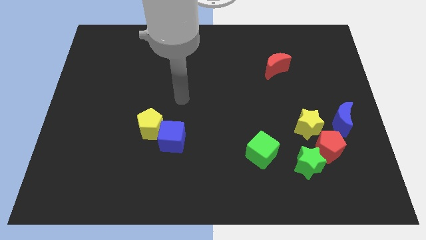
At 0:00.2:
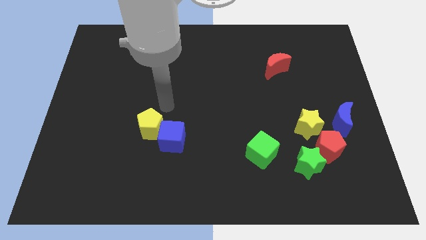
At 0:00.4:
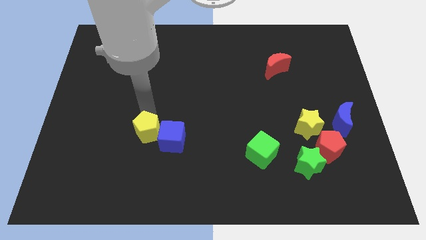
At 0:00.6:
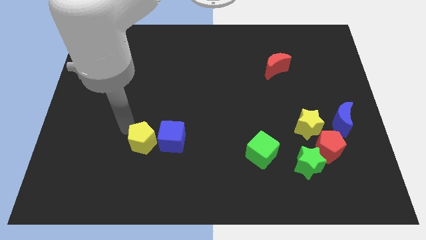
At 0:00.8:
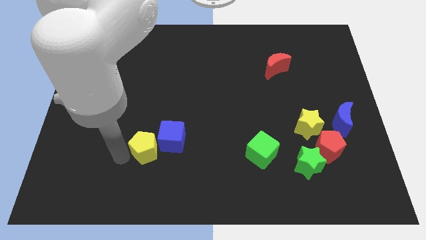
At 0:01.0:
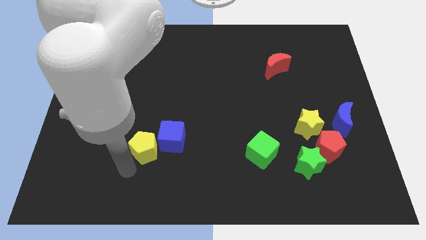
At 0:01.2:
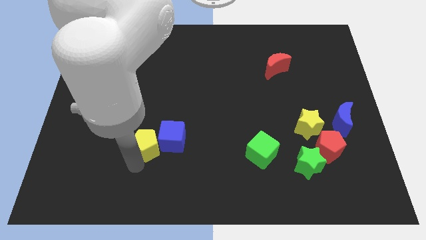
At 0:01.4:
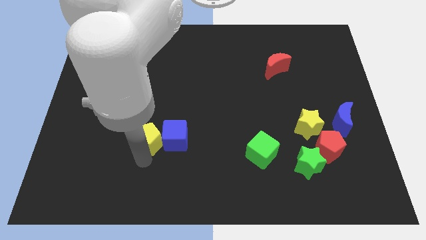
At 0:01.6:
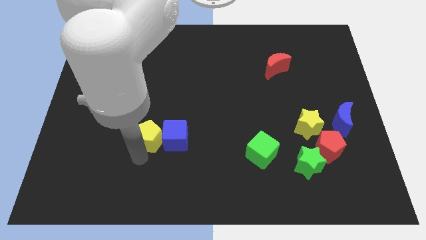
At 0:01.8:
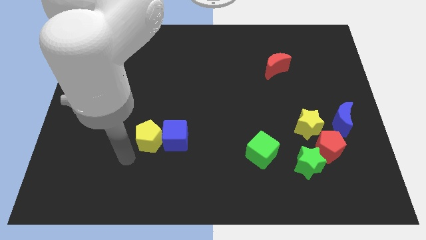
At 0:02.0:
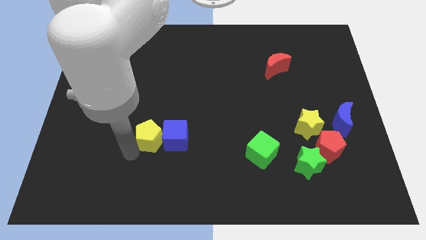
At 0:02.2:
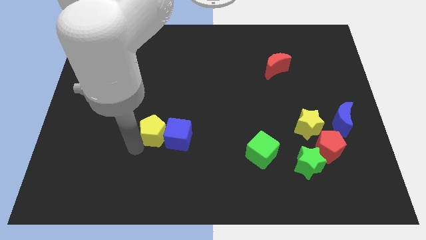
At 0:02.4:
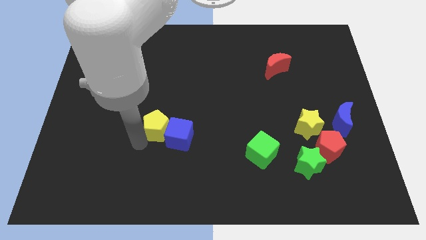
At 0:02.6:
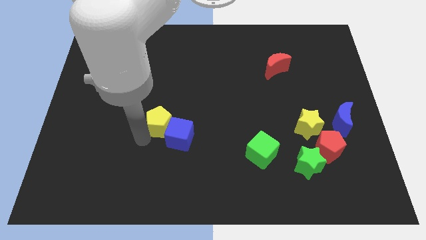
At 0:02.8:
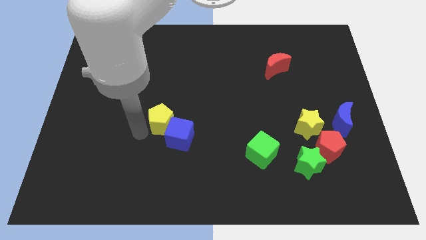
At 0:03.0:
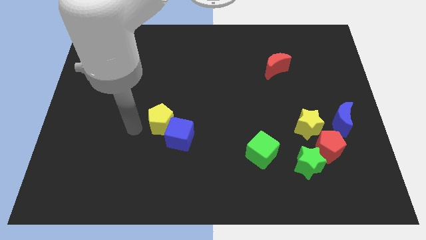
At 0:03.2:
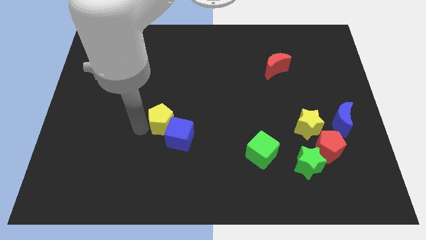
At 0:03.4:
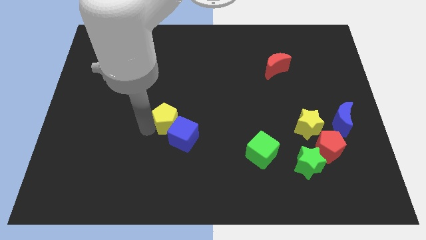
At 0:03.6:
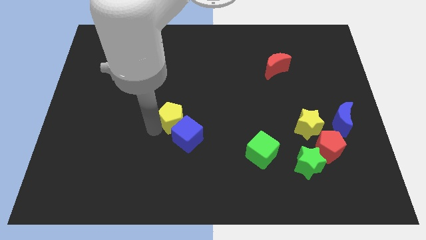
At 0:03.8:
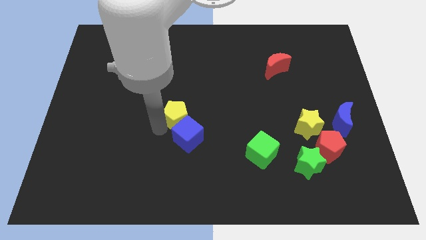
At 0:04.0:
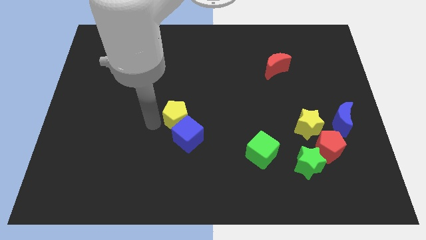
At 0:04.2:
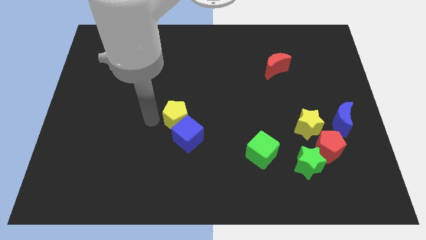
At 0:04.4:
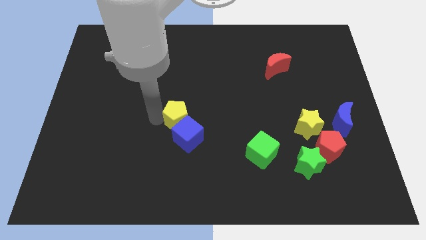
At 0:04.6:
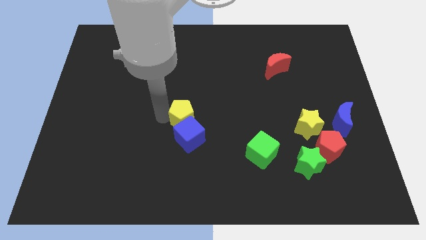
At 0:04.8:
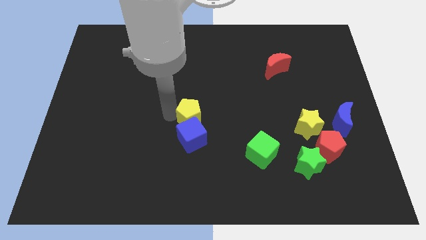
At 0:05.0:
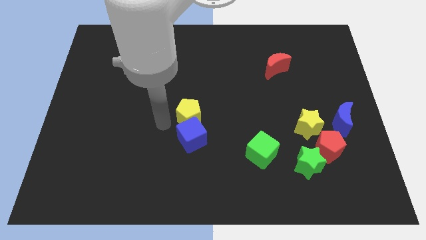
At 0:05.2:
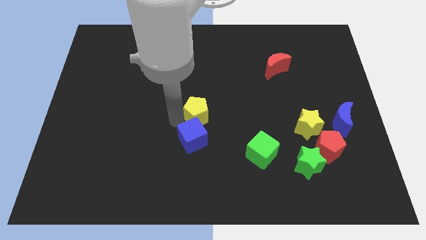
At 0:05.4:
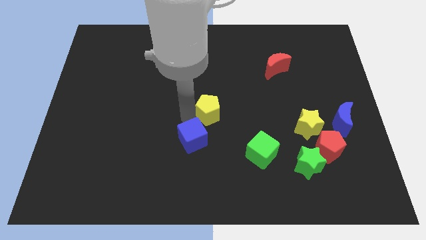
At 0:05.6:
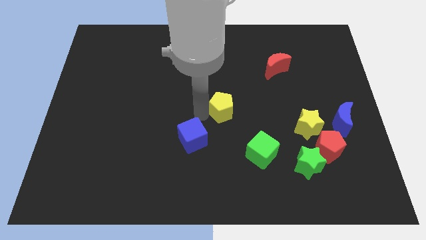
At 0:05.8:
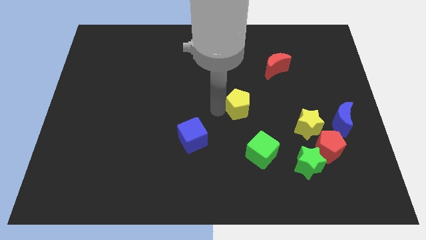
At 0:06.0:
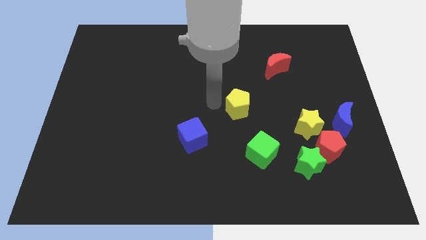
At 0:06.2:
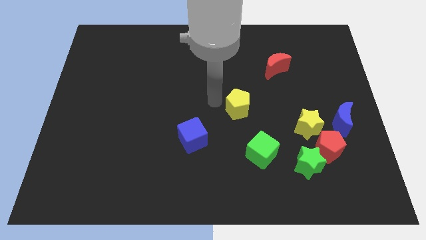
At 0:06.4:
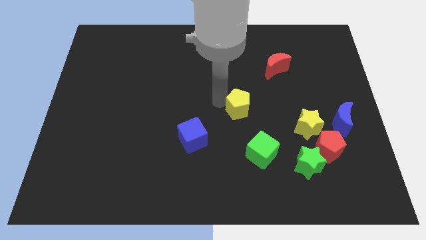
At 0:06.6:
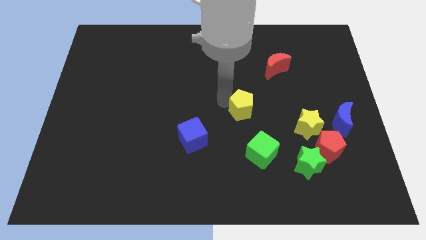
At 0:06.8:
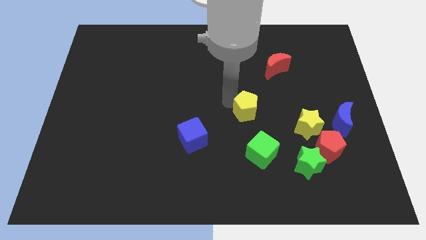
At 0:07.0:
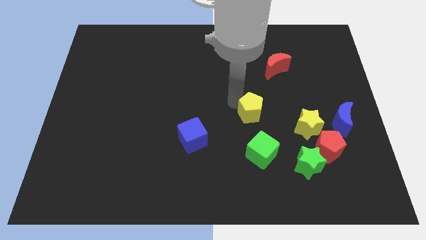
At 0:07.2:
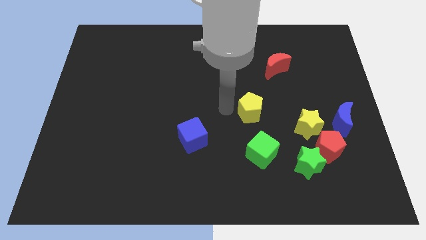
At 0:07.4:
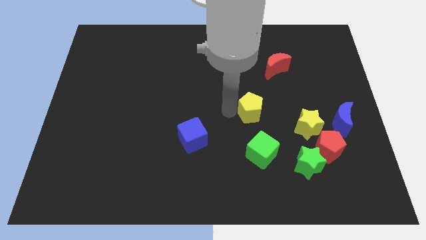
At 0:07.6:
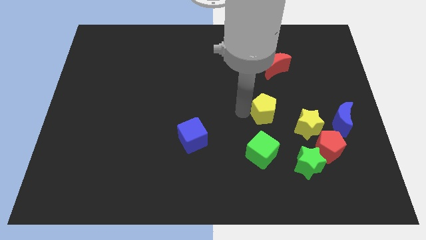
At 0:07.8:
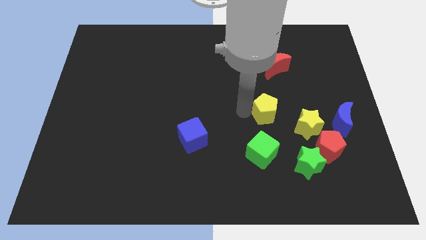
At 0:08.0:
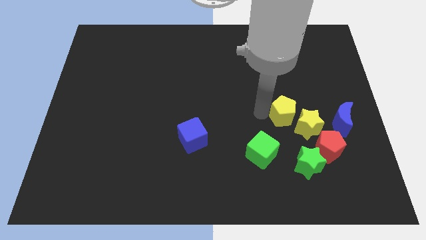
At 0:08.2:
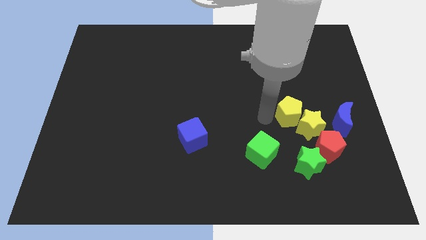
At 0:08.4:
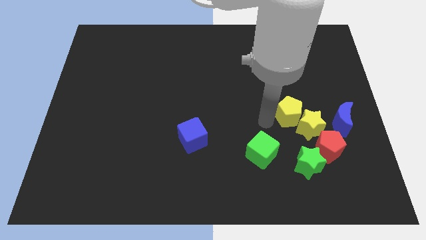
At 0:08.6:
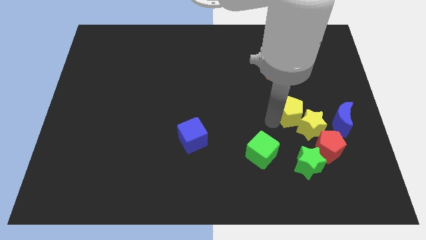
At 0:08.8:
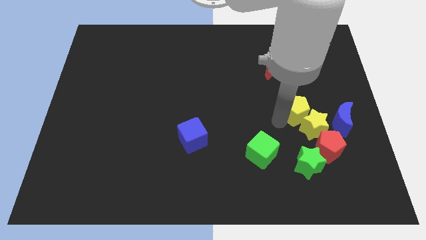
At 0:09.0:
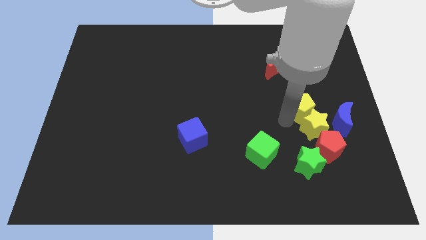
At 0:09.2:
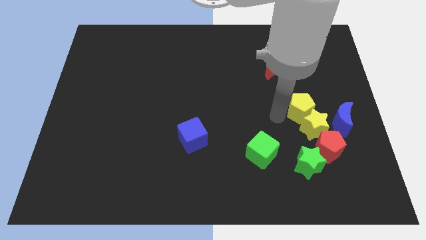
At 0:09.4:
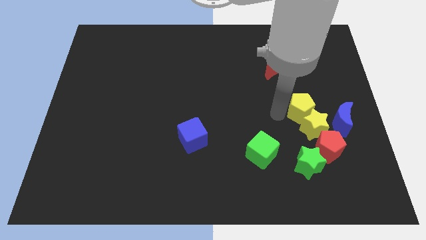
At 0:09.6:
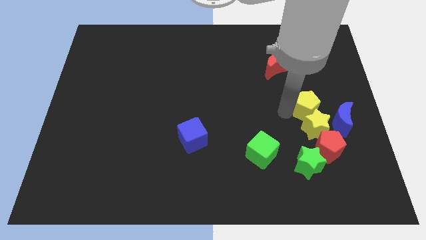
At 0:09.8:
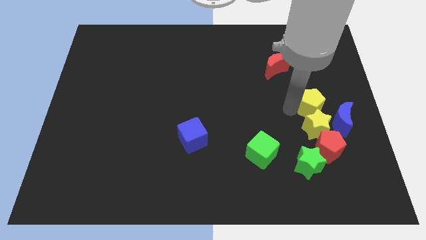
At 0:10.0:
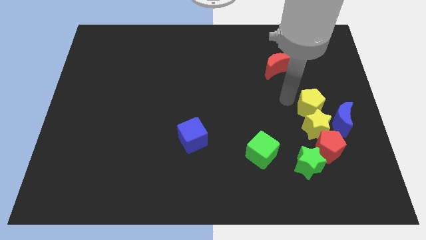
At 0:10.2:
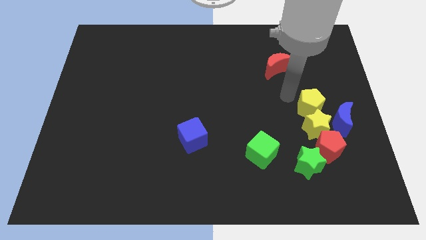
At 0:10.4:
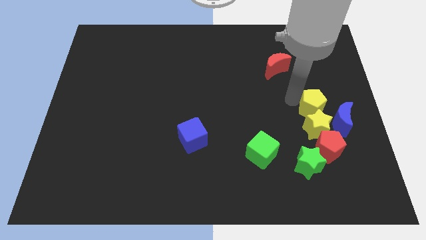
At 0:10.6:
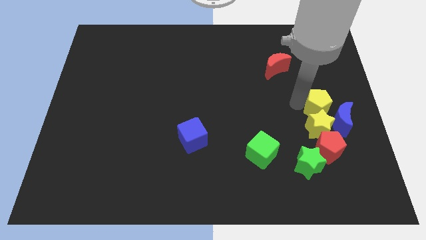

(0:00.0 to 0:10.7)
move the yellow pentagon next to the blue moon

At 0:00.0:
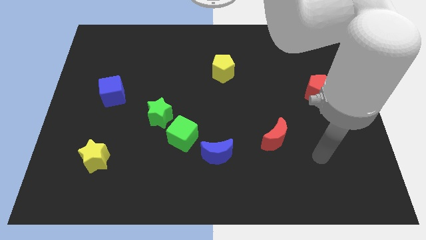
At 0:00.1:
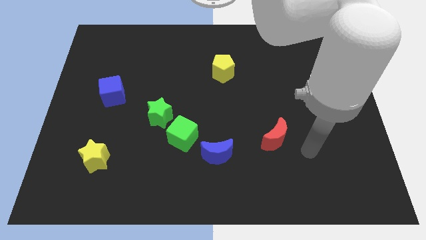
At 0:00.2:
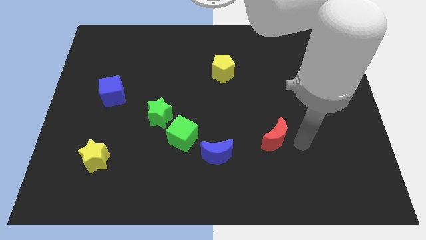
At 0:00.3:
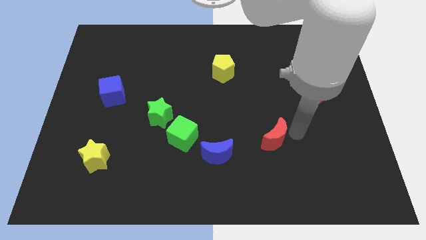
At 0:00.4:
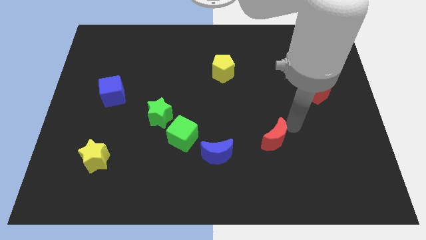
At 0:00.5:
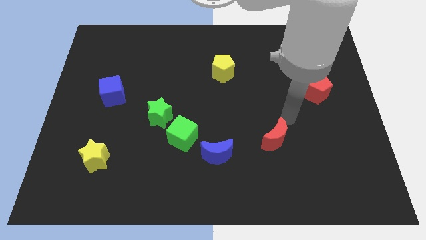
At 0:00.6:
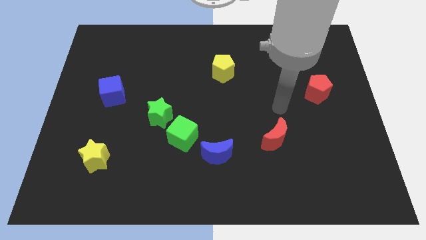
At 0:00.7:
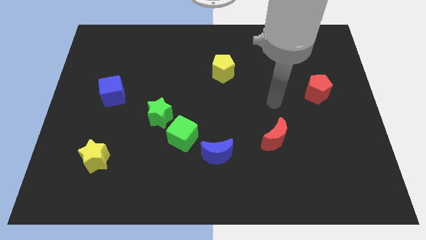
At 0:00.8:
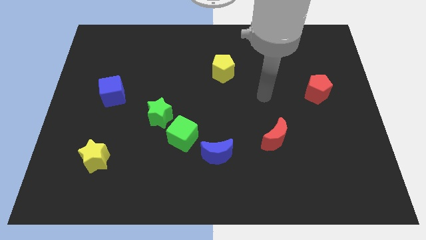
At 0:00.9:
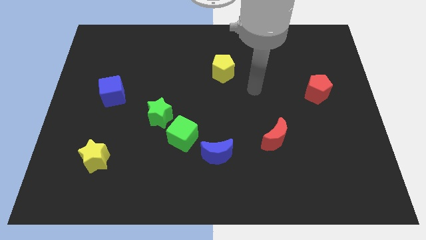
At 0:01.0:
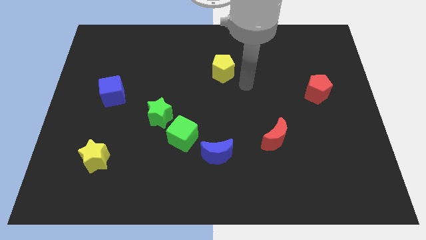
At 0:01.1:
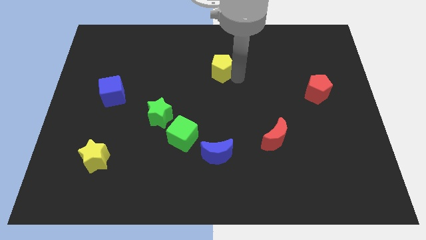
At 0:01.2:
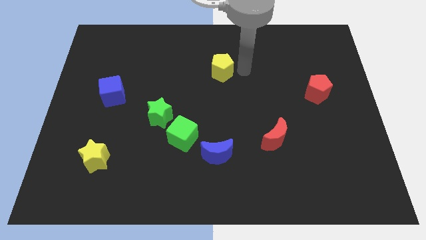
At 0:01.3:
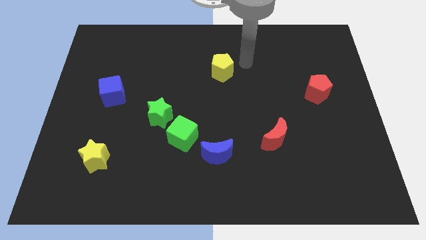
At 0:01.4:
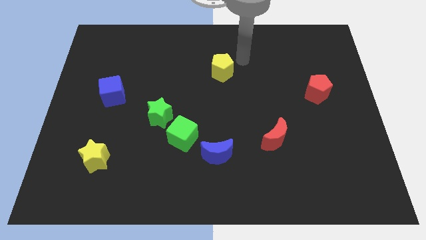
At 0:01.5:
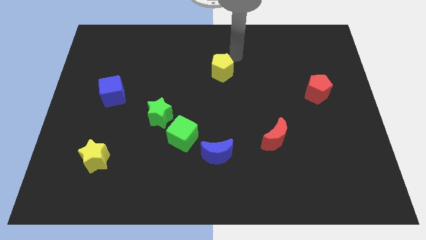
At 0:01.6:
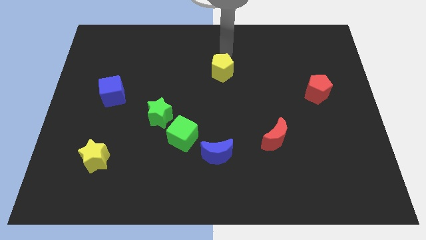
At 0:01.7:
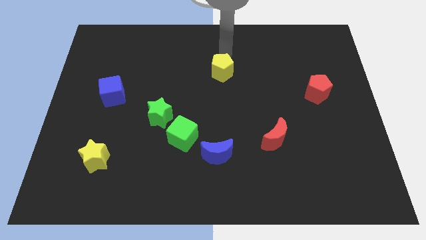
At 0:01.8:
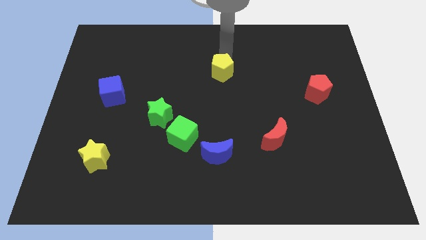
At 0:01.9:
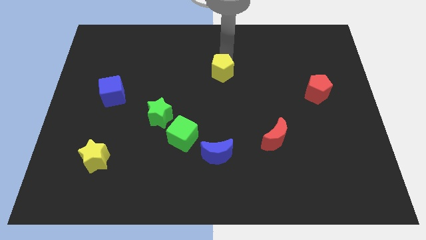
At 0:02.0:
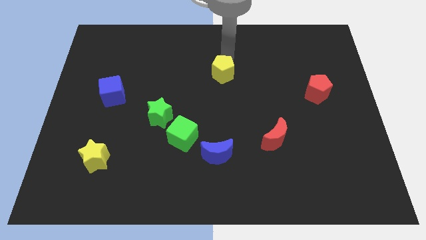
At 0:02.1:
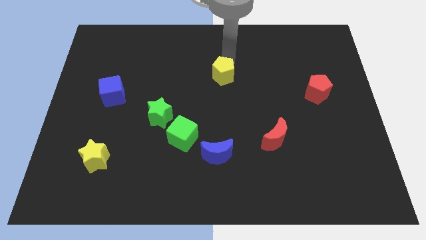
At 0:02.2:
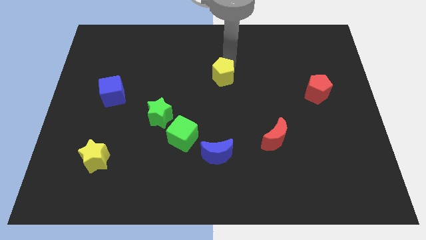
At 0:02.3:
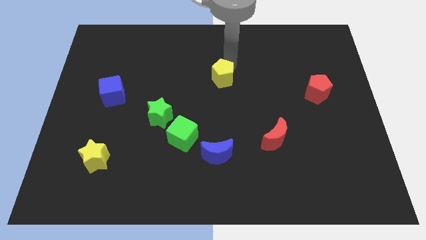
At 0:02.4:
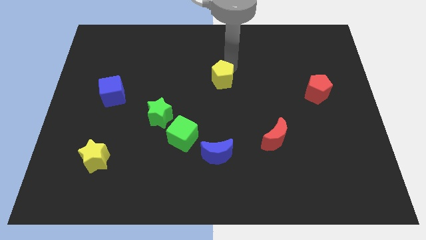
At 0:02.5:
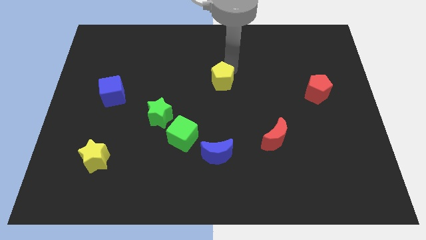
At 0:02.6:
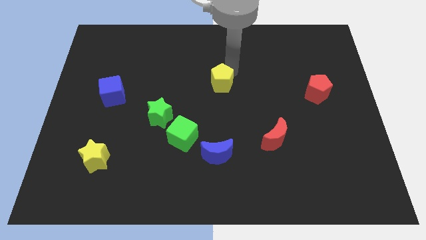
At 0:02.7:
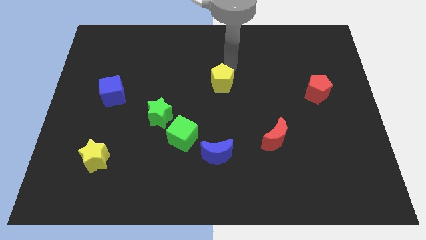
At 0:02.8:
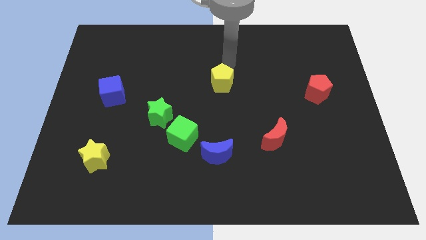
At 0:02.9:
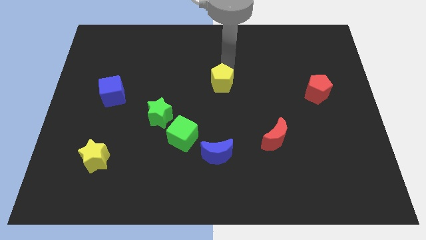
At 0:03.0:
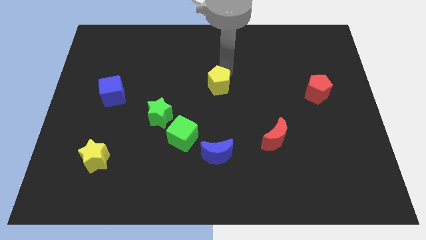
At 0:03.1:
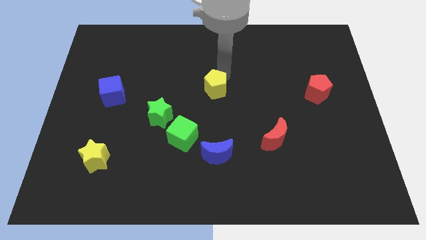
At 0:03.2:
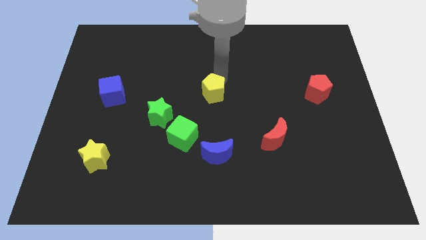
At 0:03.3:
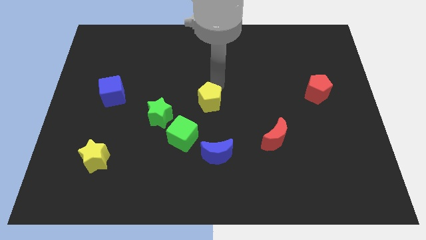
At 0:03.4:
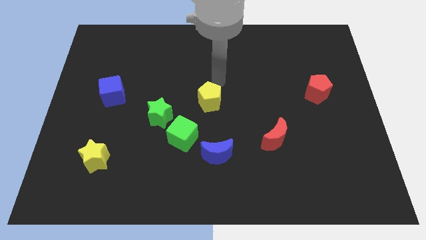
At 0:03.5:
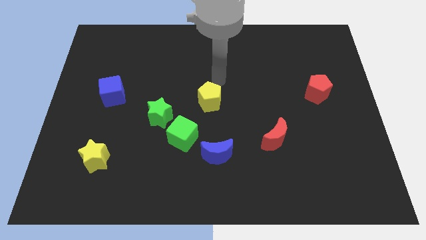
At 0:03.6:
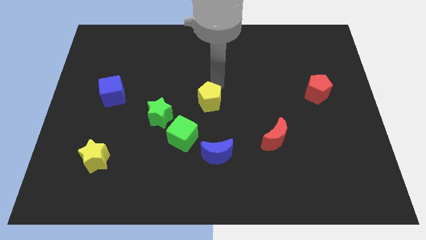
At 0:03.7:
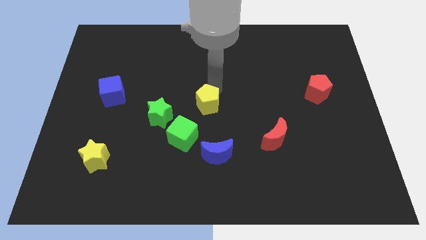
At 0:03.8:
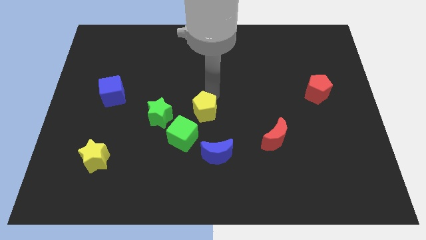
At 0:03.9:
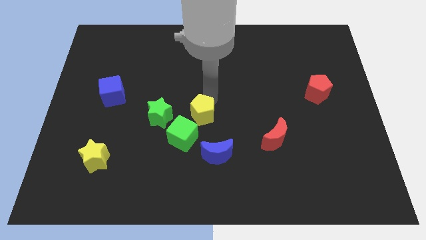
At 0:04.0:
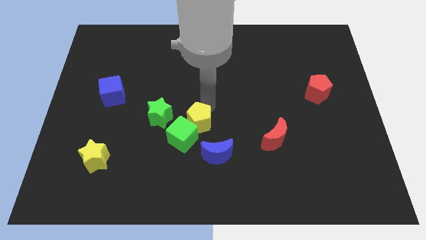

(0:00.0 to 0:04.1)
slide the yellow pentagon close to the green cube
